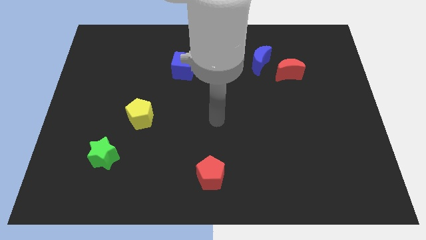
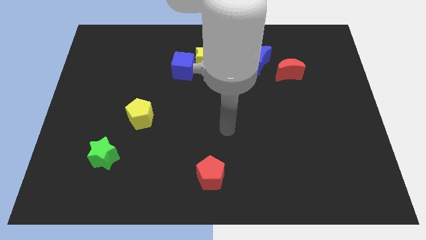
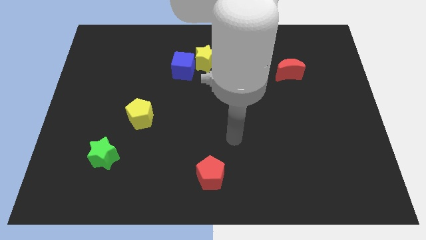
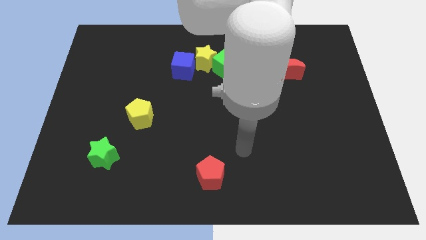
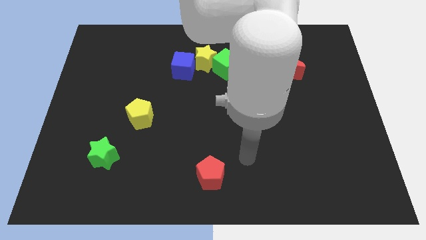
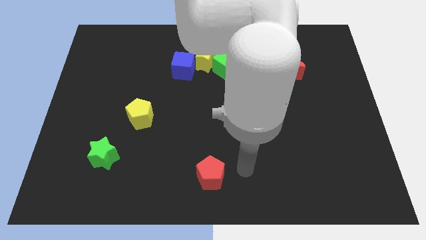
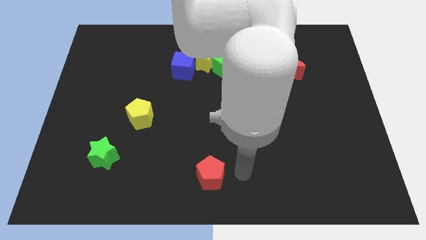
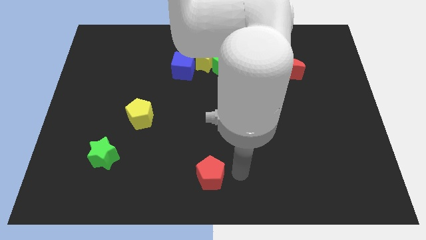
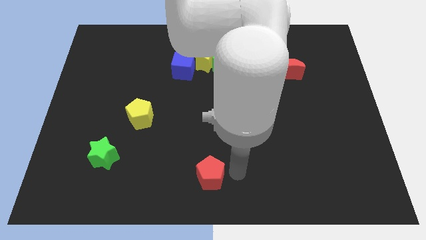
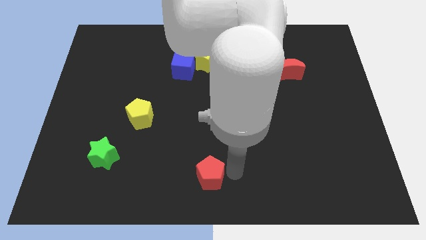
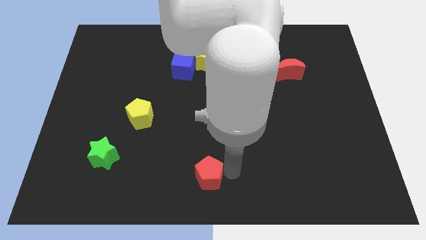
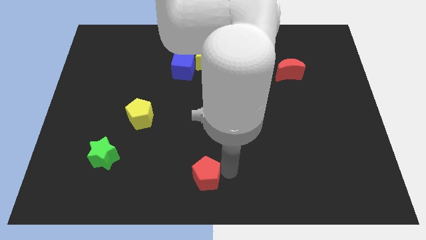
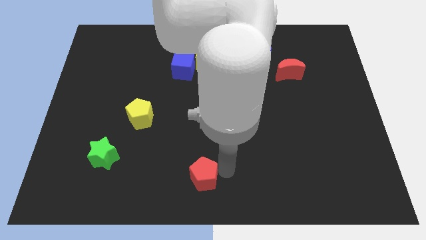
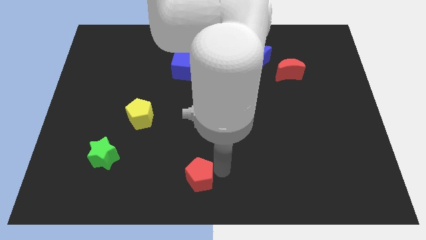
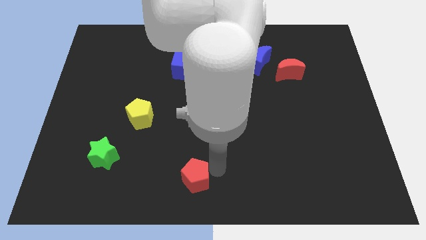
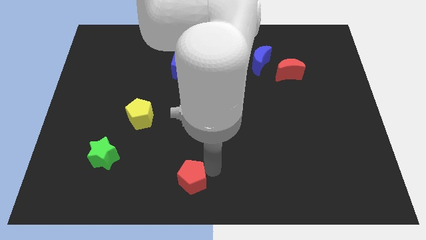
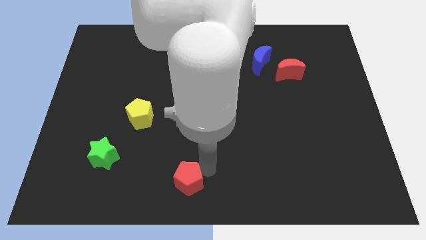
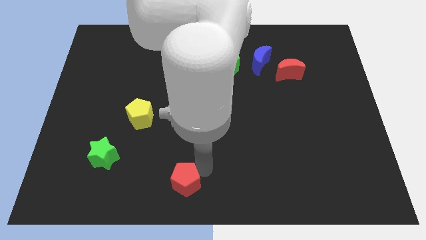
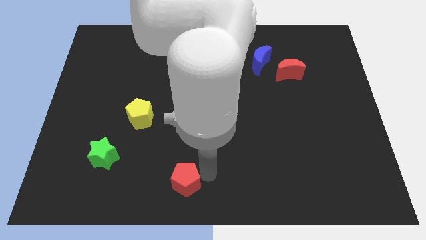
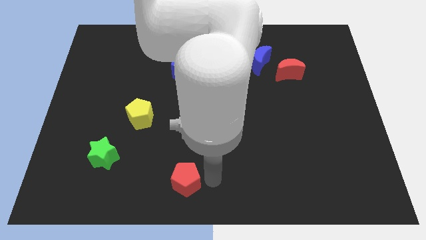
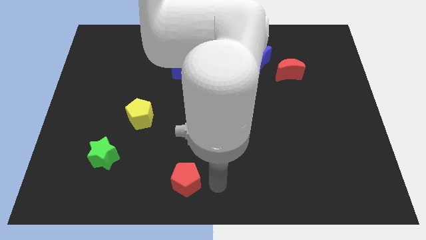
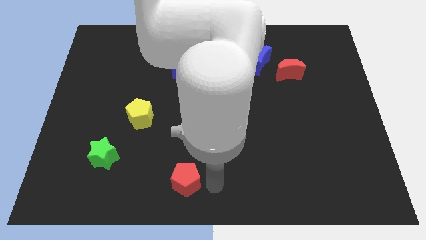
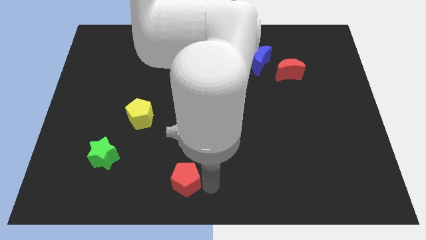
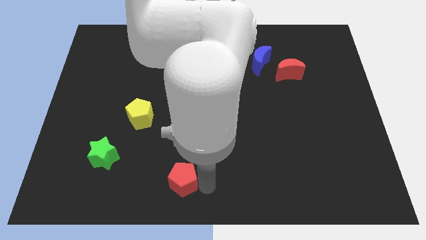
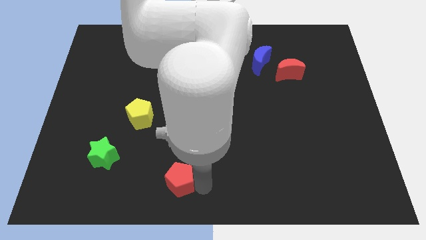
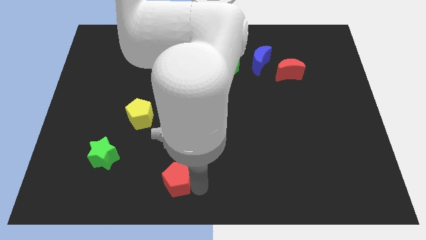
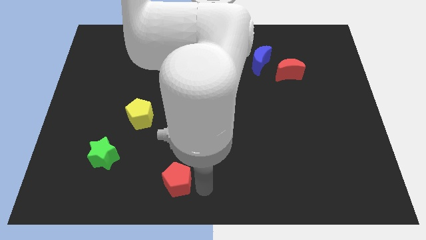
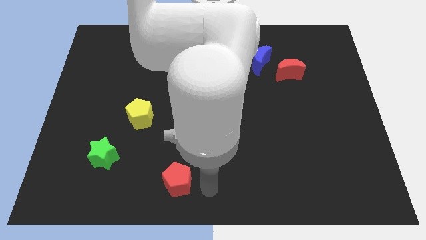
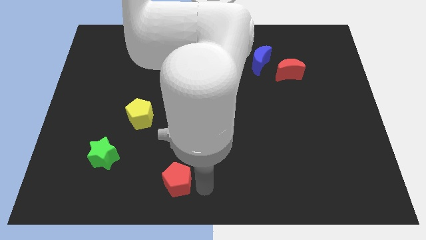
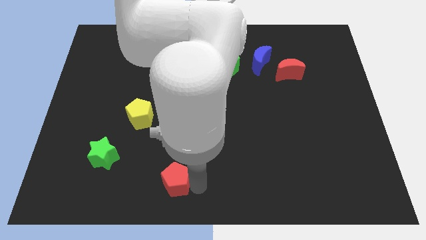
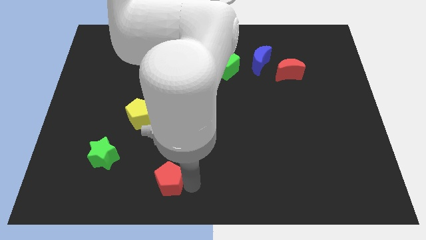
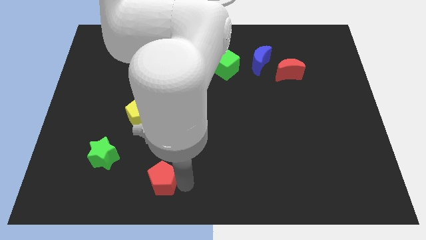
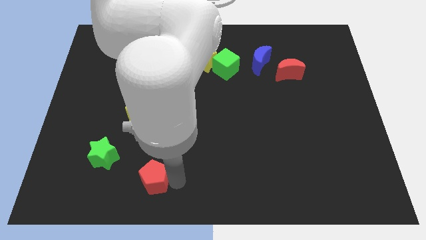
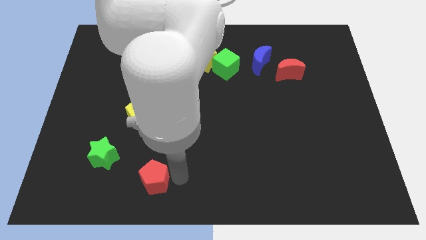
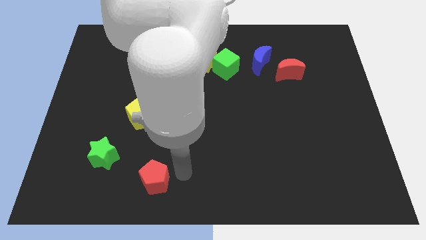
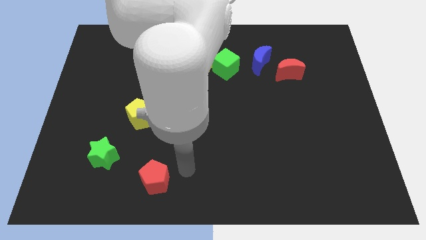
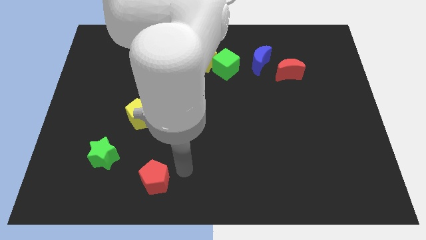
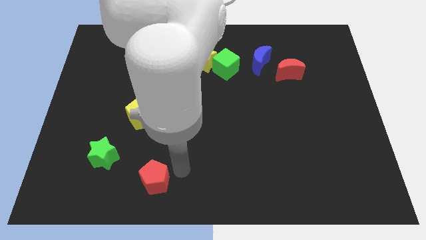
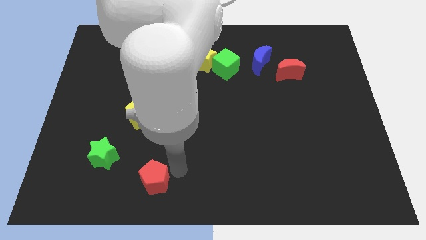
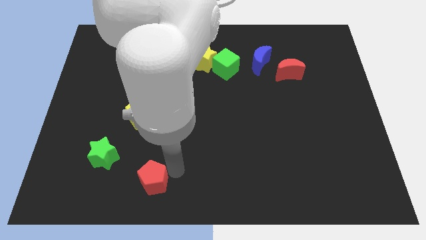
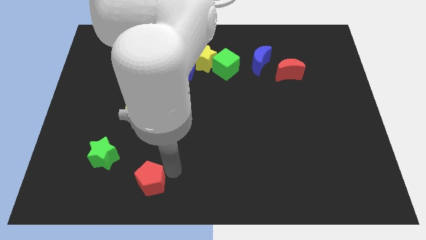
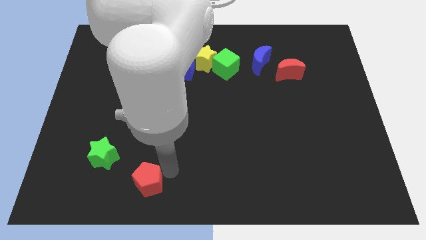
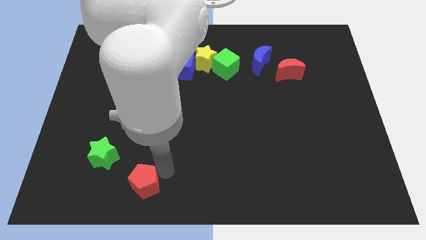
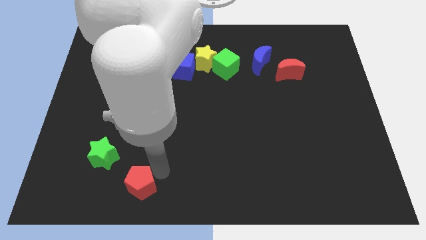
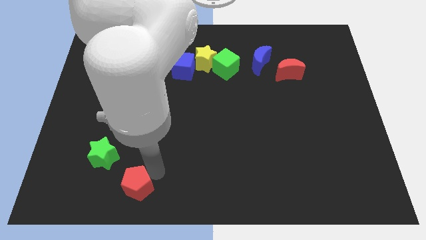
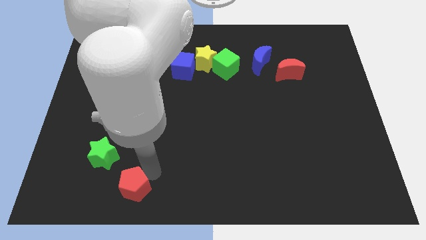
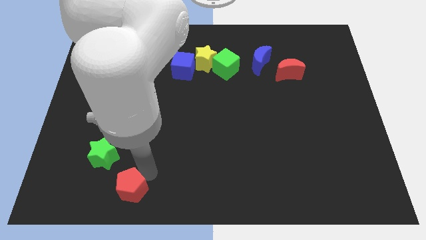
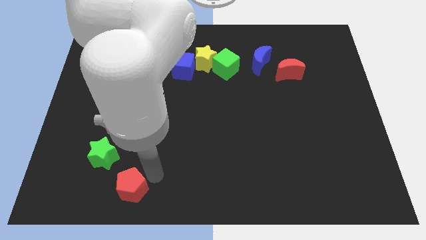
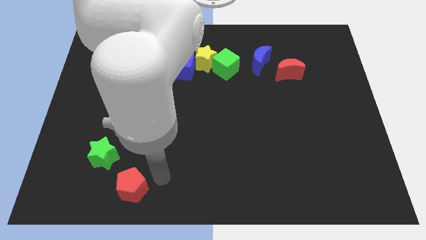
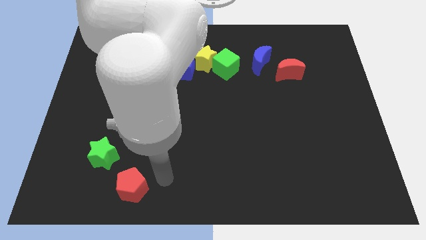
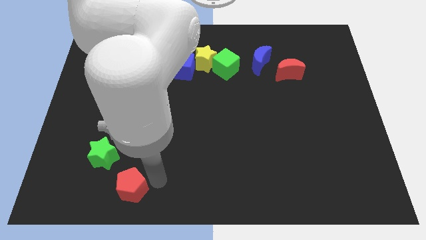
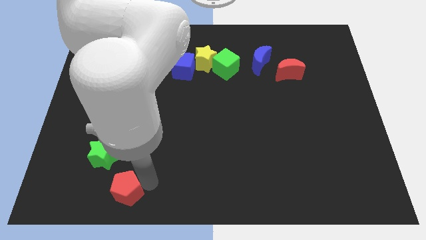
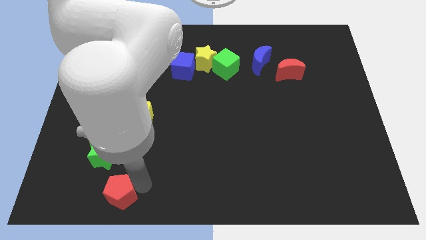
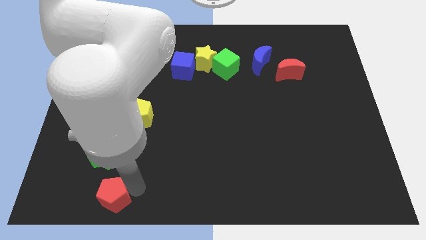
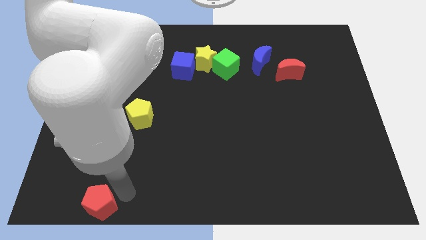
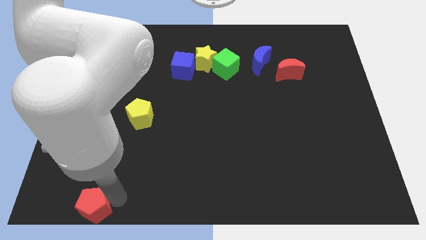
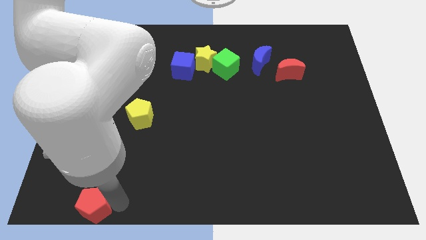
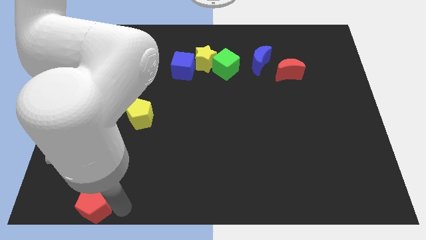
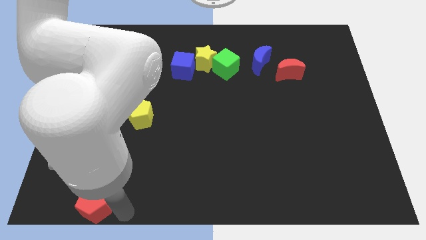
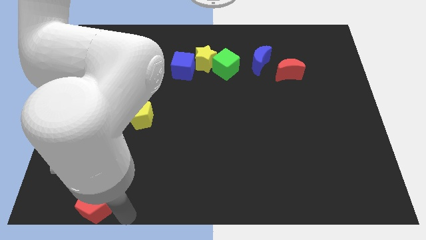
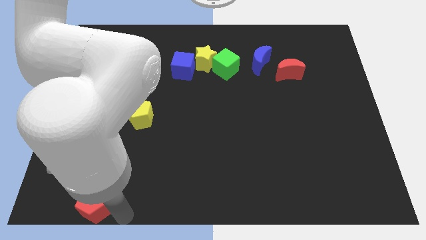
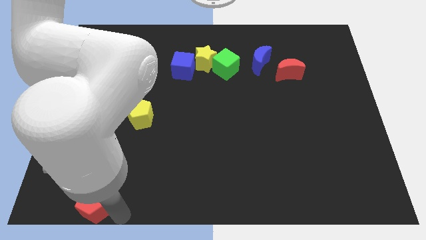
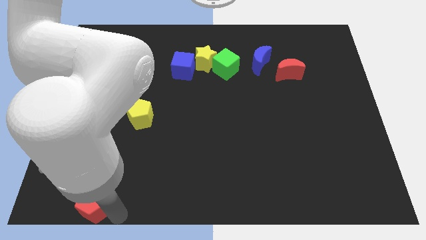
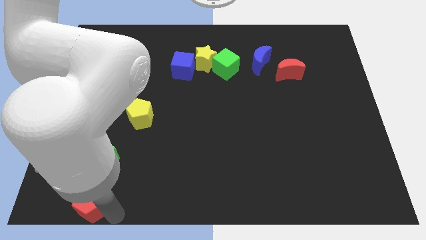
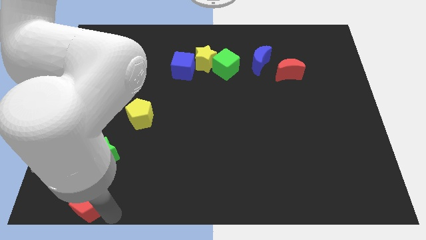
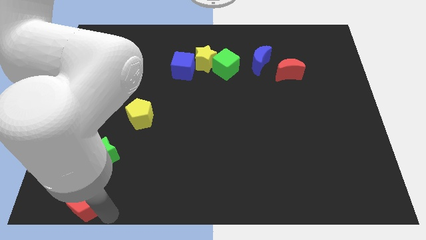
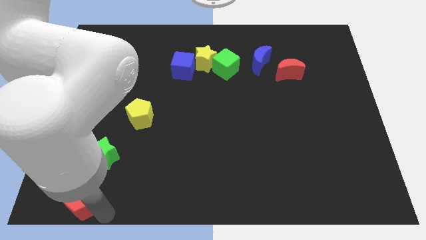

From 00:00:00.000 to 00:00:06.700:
push the red pentagon to the lower left corner
